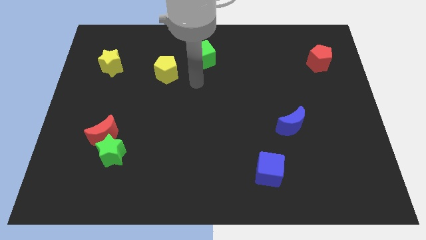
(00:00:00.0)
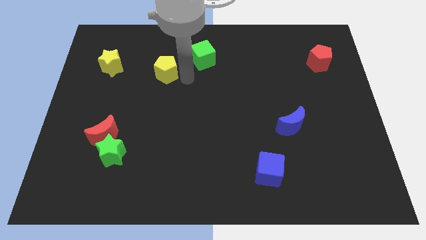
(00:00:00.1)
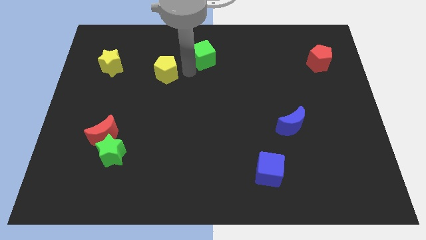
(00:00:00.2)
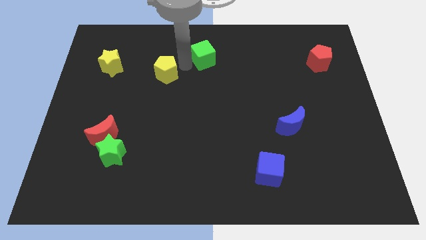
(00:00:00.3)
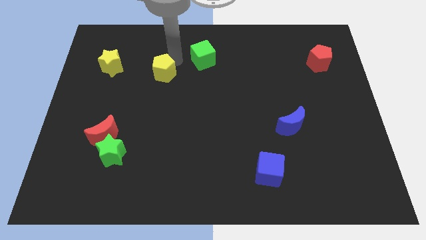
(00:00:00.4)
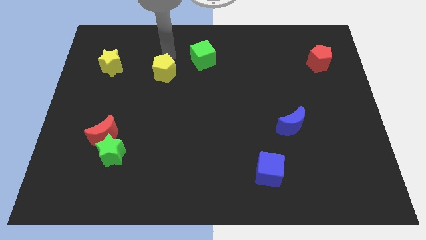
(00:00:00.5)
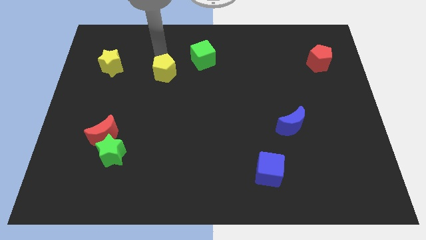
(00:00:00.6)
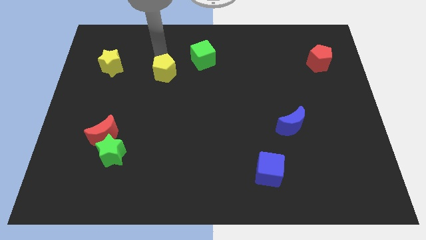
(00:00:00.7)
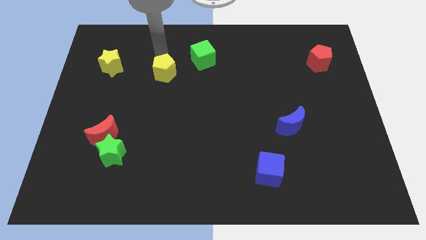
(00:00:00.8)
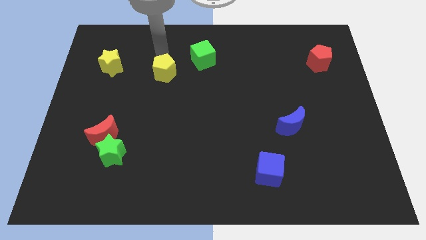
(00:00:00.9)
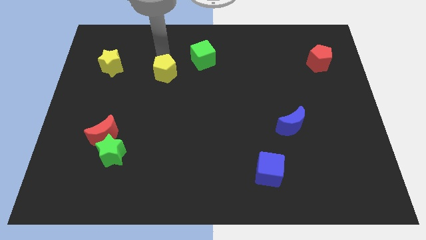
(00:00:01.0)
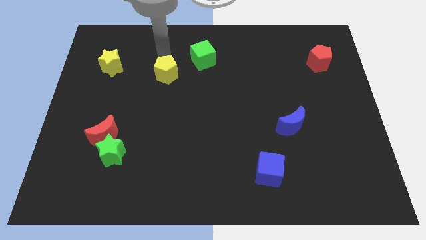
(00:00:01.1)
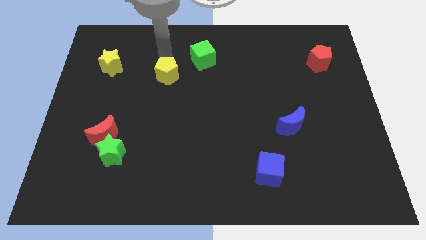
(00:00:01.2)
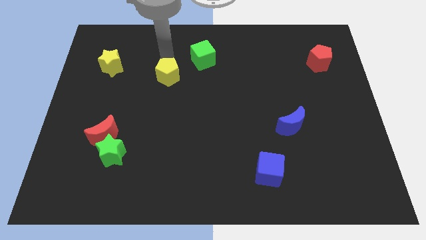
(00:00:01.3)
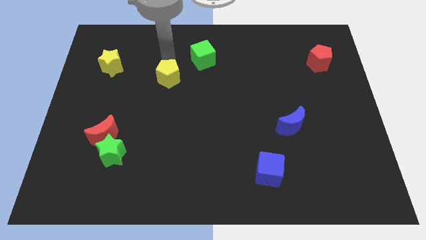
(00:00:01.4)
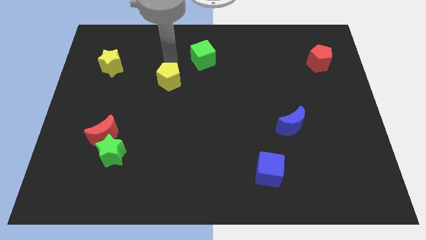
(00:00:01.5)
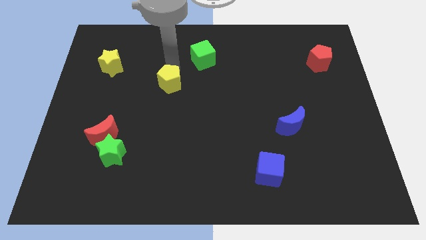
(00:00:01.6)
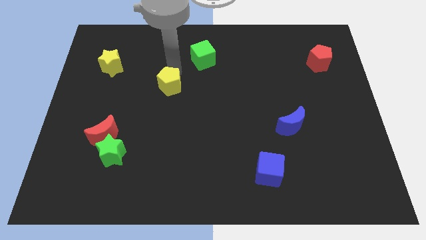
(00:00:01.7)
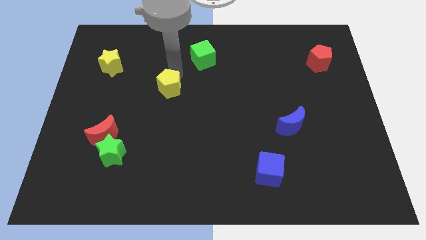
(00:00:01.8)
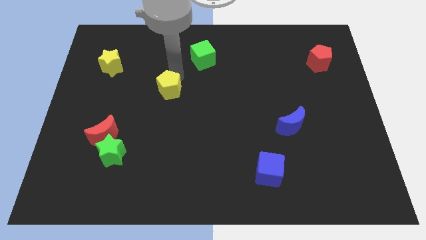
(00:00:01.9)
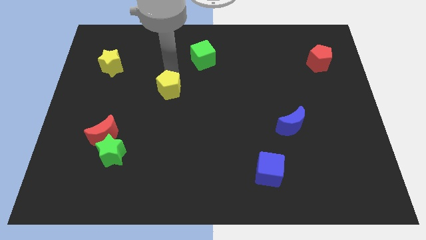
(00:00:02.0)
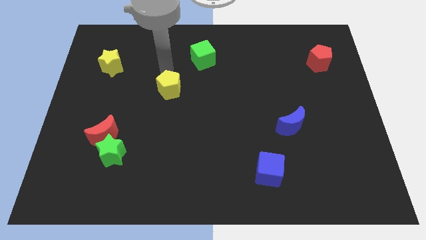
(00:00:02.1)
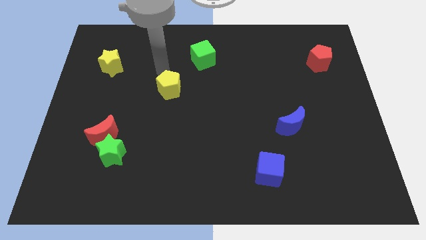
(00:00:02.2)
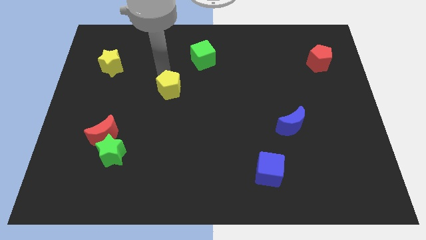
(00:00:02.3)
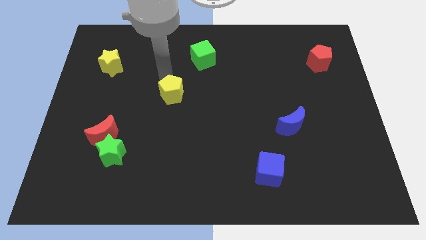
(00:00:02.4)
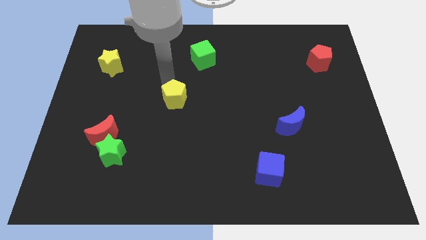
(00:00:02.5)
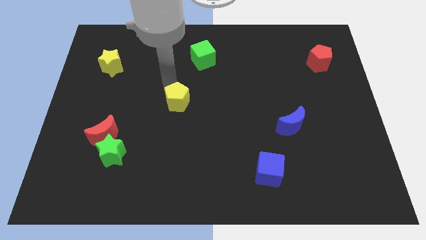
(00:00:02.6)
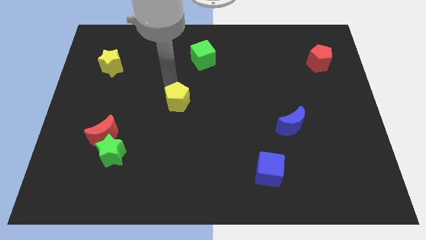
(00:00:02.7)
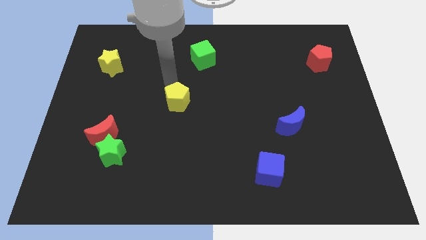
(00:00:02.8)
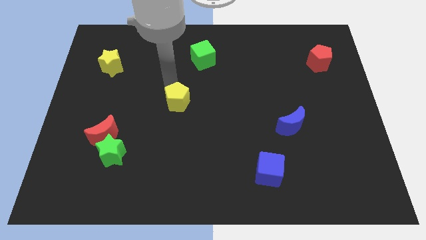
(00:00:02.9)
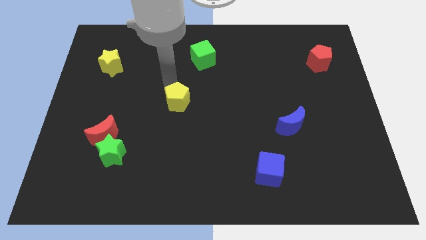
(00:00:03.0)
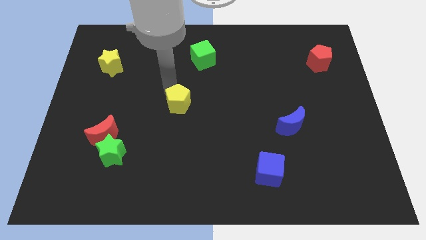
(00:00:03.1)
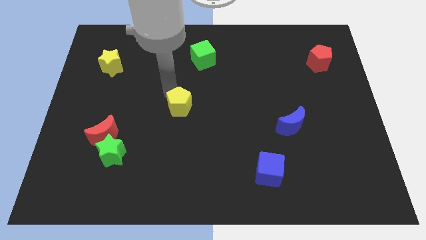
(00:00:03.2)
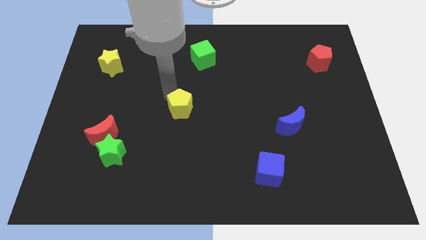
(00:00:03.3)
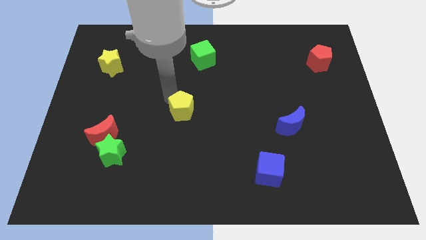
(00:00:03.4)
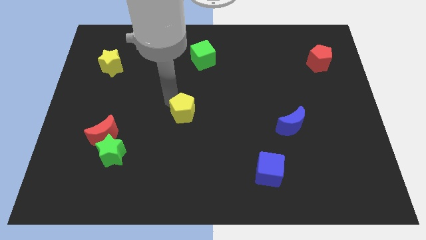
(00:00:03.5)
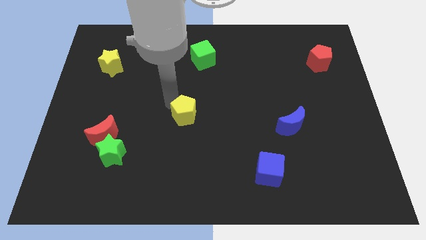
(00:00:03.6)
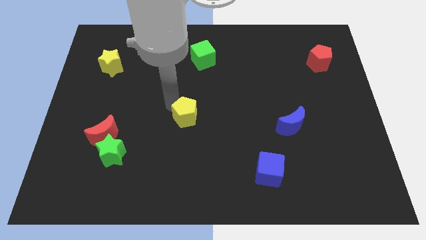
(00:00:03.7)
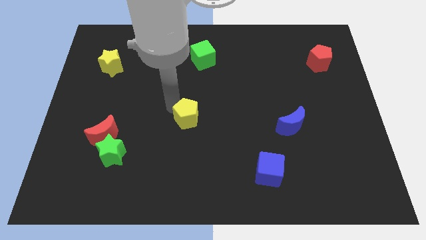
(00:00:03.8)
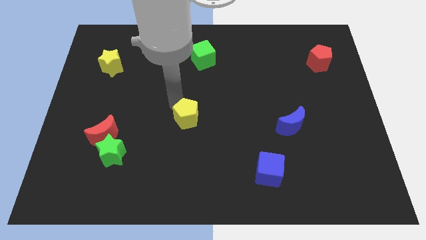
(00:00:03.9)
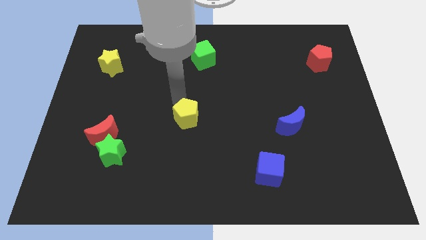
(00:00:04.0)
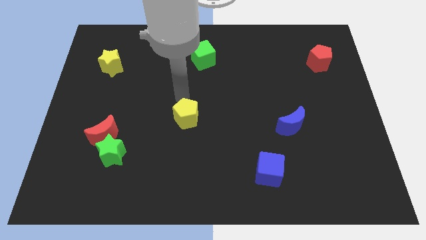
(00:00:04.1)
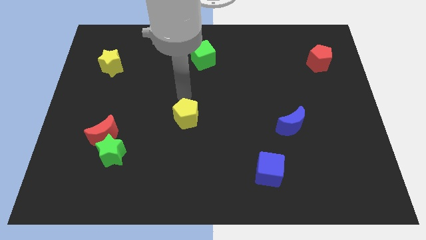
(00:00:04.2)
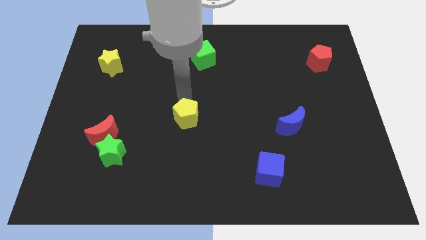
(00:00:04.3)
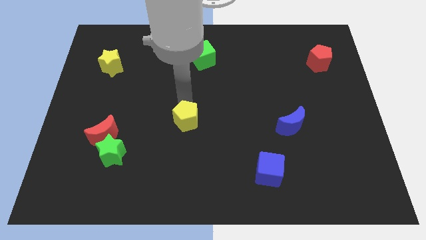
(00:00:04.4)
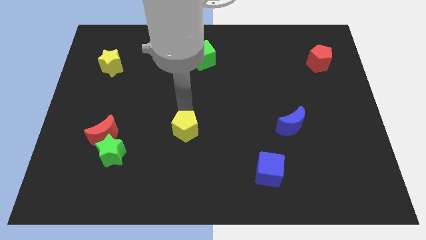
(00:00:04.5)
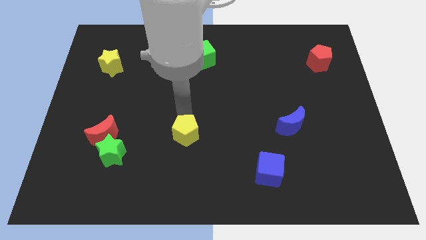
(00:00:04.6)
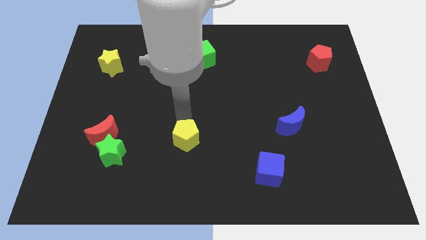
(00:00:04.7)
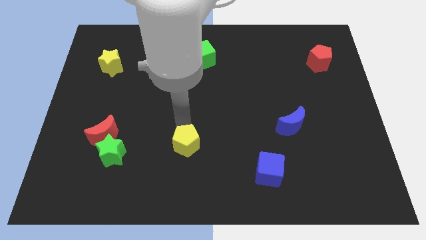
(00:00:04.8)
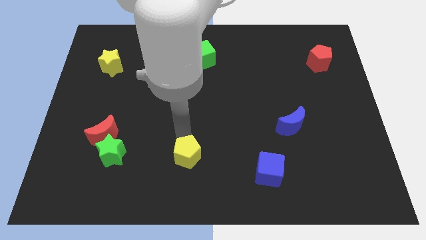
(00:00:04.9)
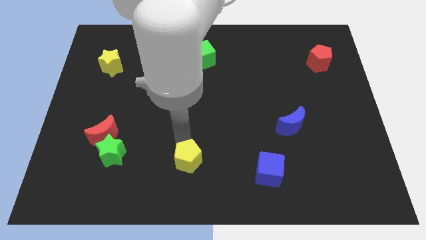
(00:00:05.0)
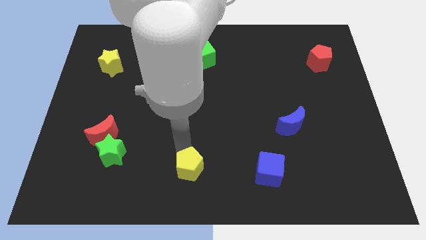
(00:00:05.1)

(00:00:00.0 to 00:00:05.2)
move the yellow pentagon left of the blue cube

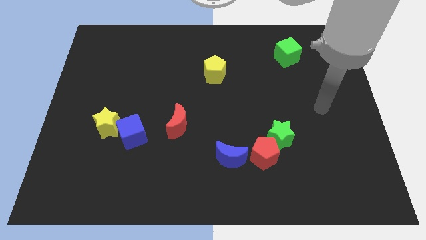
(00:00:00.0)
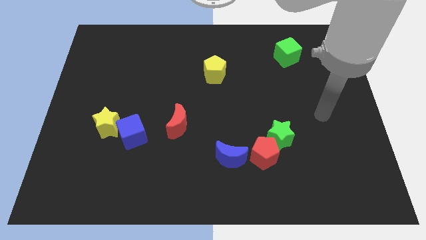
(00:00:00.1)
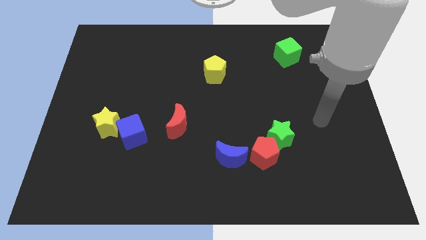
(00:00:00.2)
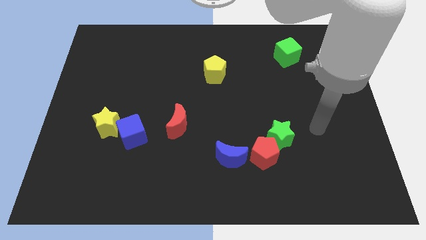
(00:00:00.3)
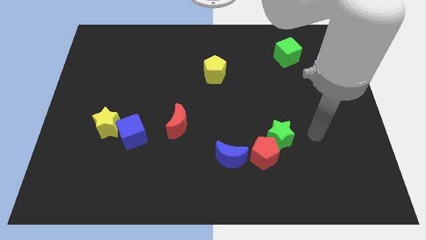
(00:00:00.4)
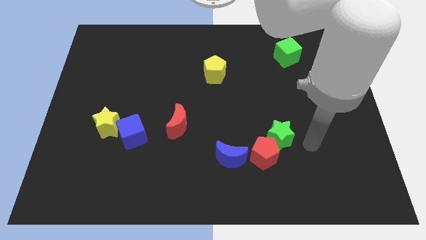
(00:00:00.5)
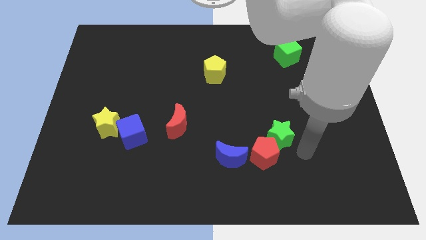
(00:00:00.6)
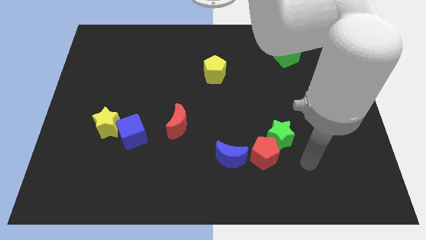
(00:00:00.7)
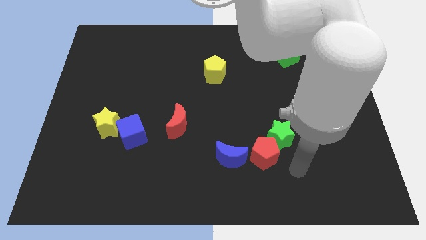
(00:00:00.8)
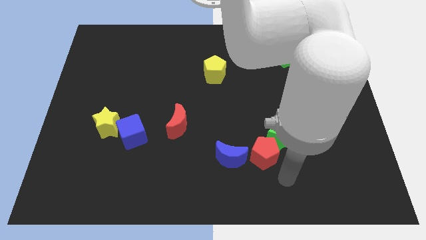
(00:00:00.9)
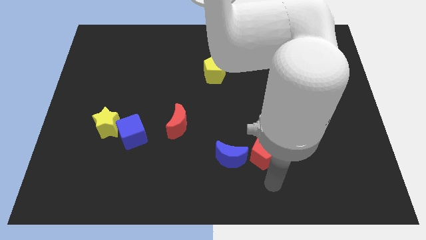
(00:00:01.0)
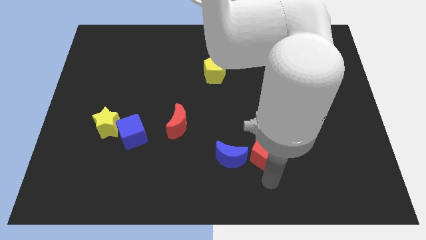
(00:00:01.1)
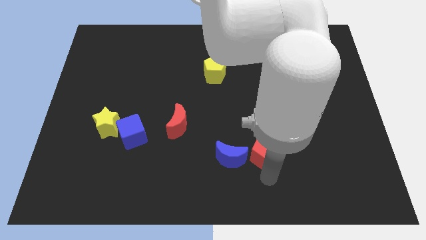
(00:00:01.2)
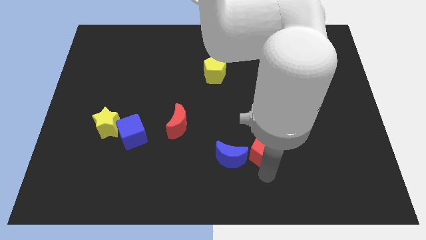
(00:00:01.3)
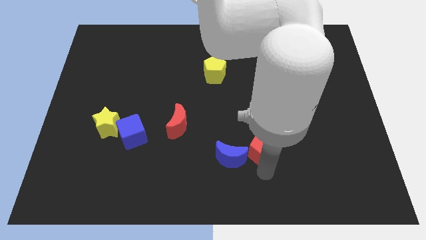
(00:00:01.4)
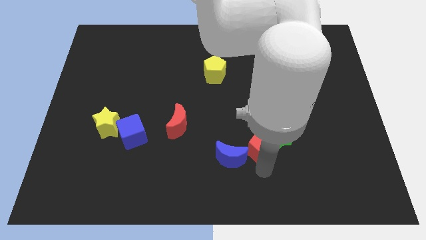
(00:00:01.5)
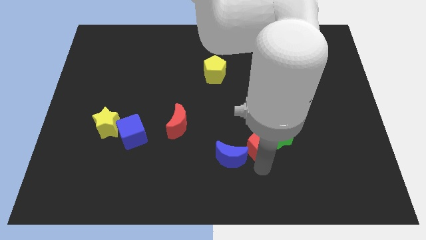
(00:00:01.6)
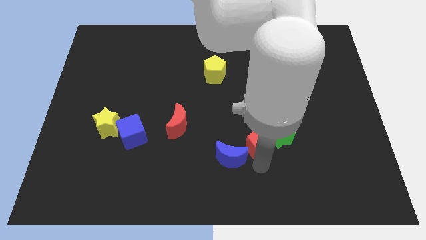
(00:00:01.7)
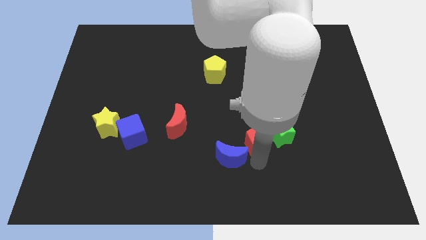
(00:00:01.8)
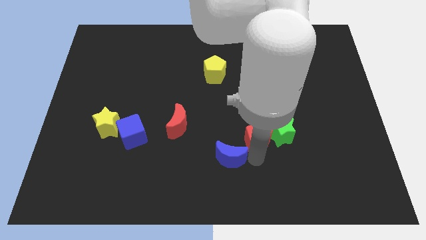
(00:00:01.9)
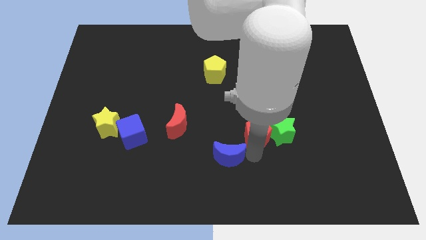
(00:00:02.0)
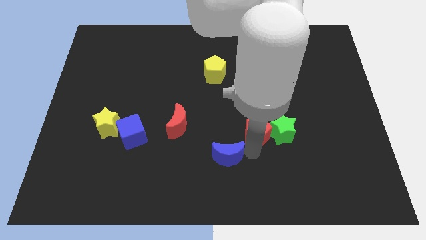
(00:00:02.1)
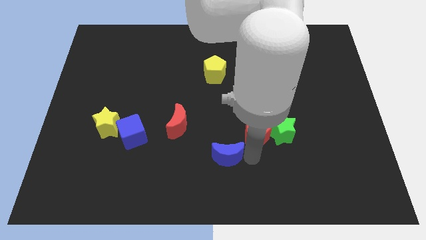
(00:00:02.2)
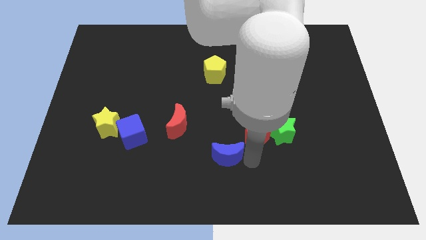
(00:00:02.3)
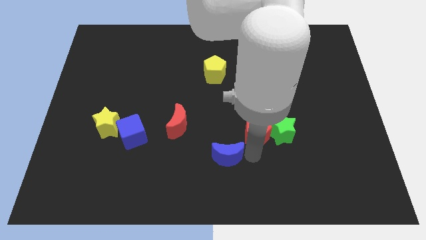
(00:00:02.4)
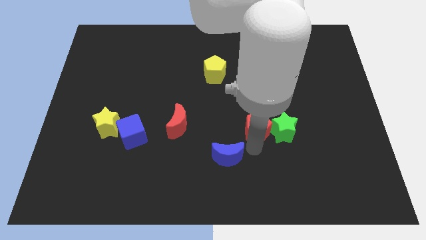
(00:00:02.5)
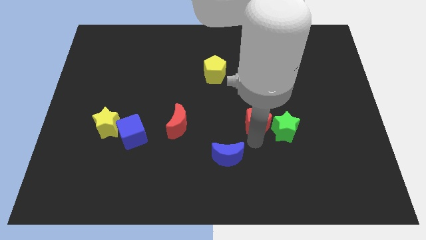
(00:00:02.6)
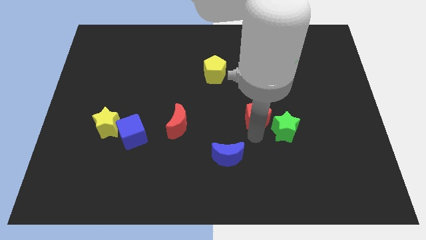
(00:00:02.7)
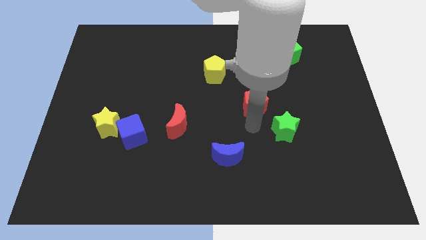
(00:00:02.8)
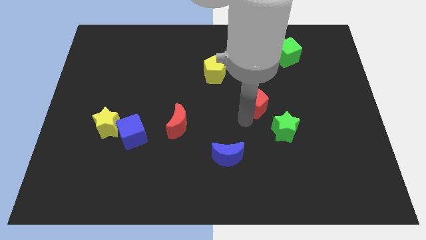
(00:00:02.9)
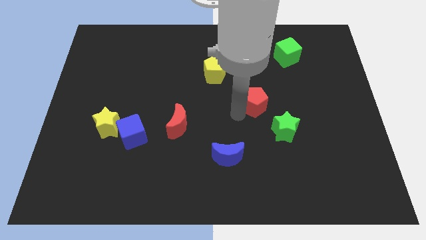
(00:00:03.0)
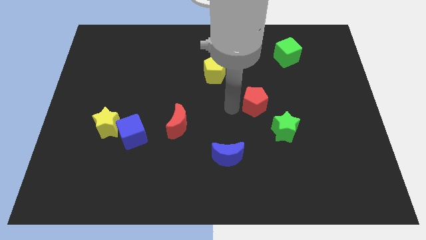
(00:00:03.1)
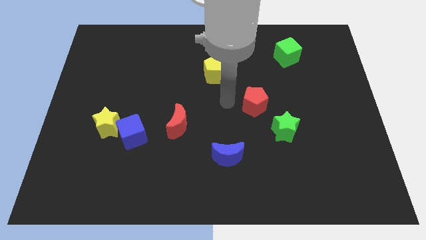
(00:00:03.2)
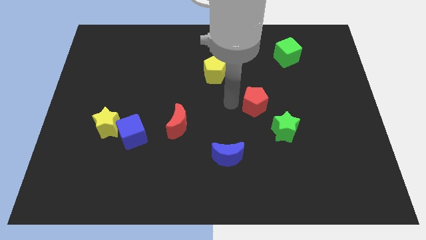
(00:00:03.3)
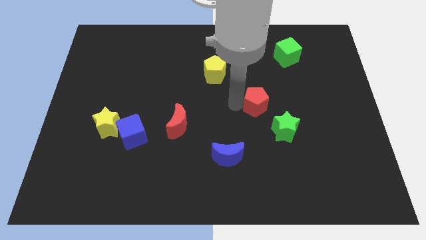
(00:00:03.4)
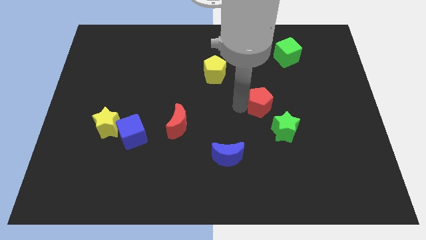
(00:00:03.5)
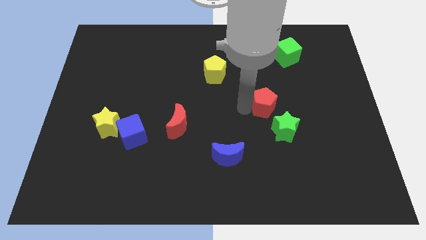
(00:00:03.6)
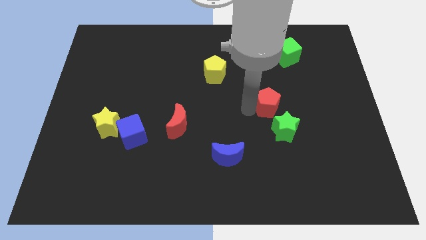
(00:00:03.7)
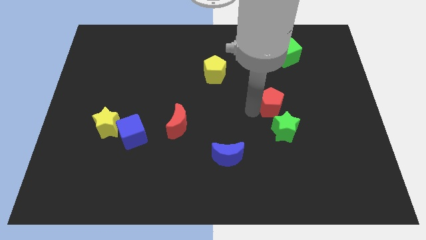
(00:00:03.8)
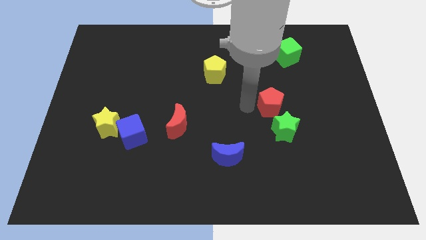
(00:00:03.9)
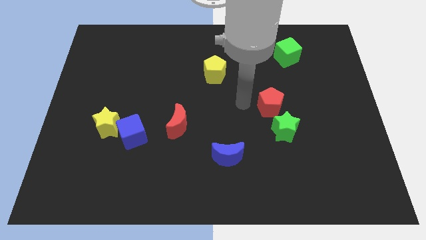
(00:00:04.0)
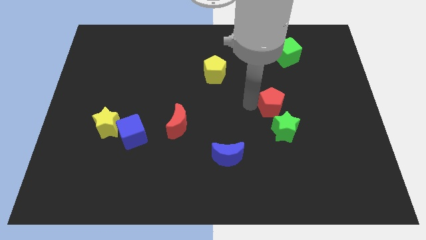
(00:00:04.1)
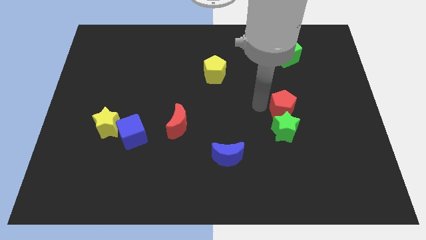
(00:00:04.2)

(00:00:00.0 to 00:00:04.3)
push the red pentagon to the top right side of the green star
